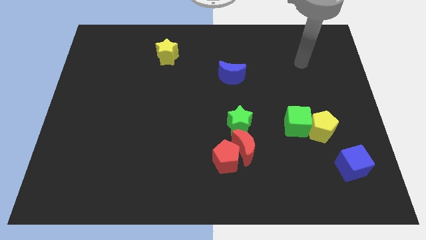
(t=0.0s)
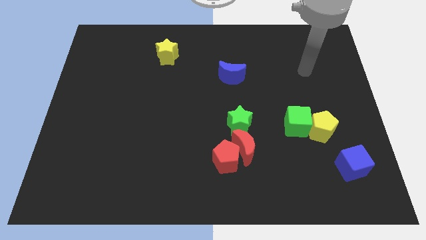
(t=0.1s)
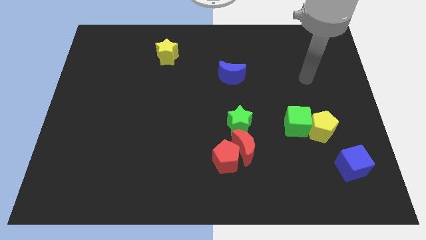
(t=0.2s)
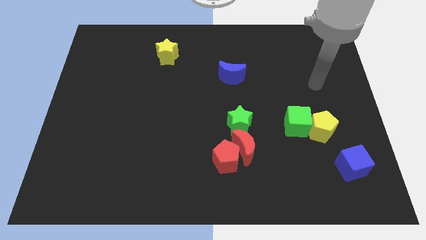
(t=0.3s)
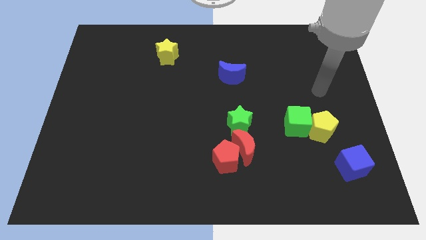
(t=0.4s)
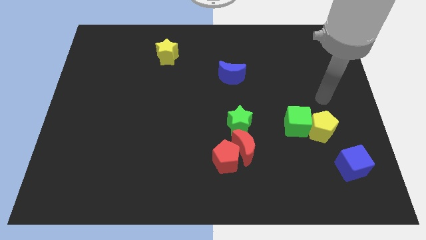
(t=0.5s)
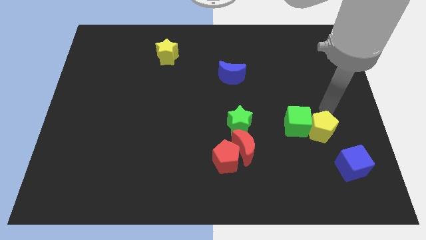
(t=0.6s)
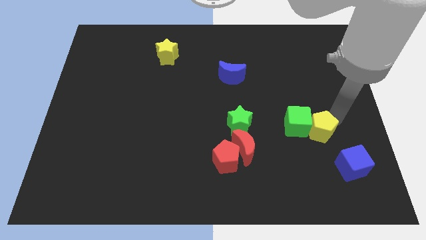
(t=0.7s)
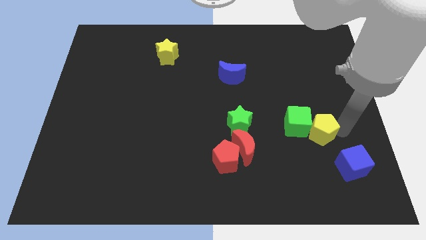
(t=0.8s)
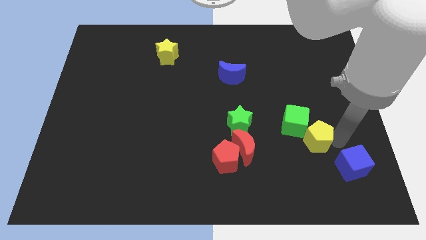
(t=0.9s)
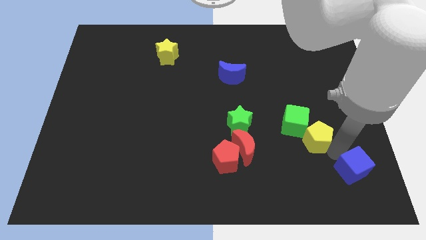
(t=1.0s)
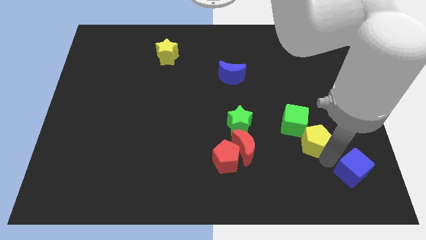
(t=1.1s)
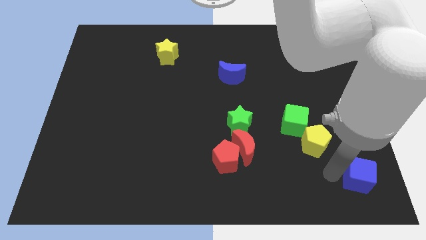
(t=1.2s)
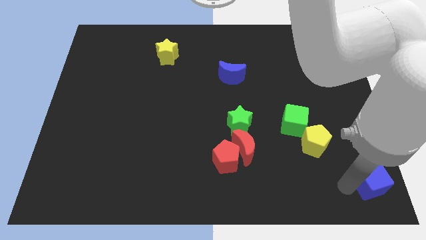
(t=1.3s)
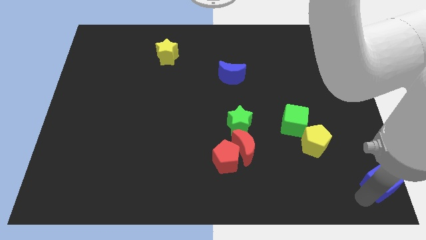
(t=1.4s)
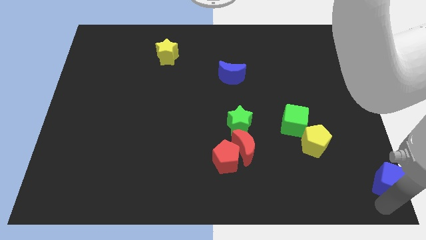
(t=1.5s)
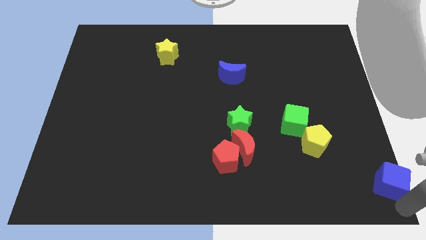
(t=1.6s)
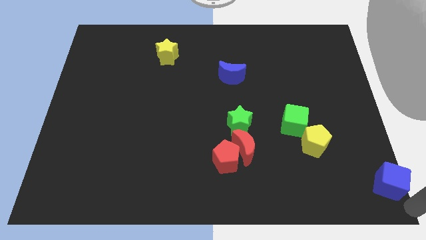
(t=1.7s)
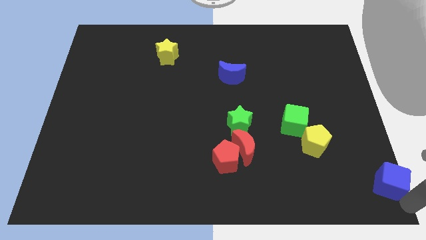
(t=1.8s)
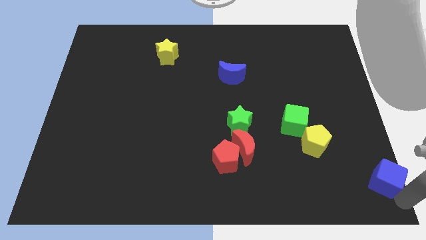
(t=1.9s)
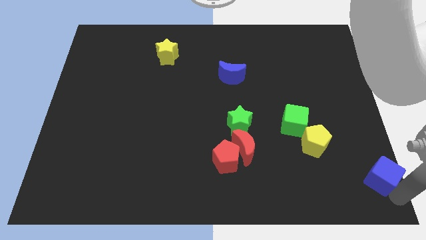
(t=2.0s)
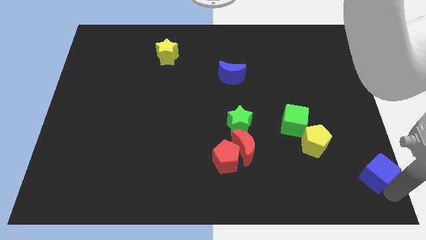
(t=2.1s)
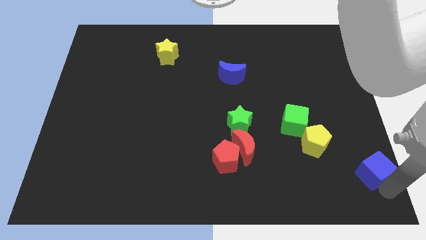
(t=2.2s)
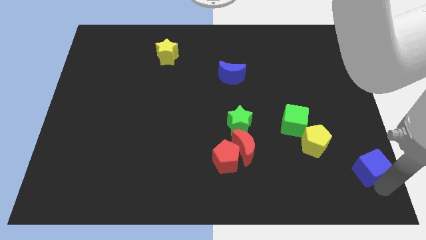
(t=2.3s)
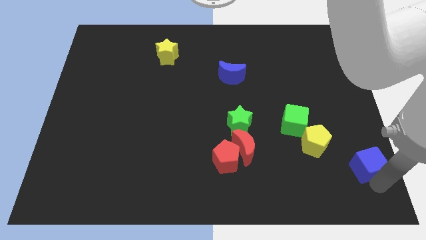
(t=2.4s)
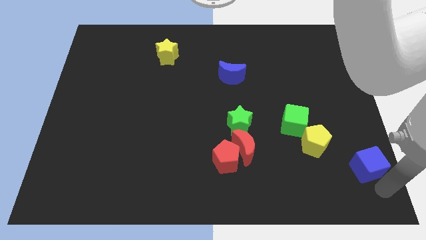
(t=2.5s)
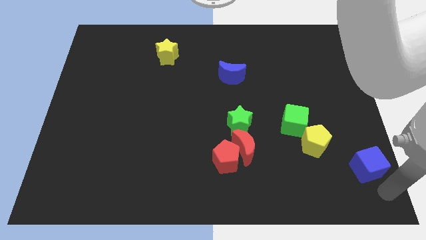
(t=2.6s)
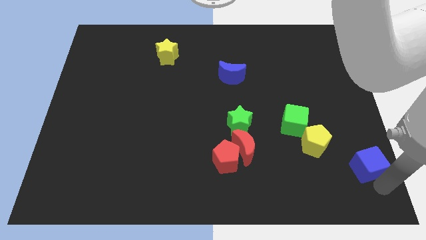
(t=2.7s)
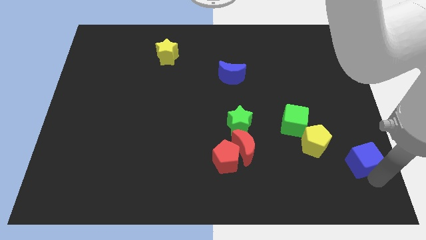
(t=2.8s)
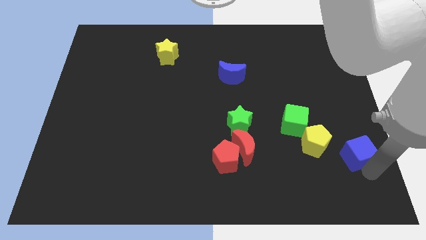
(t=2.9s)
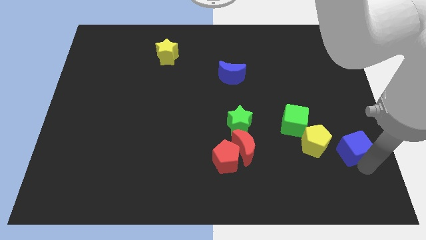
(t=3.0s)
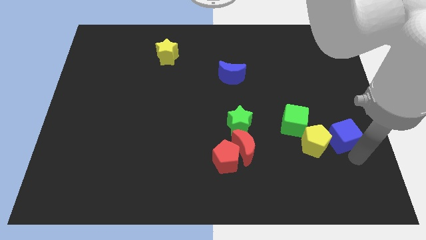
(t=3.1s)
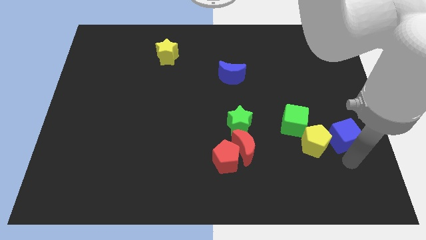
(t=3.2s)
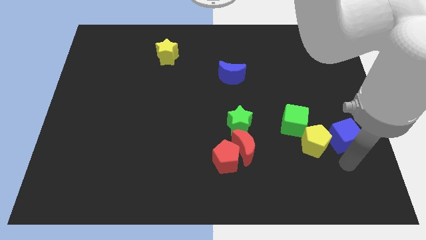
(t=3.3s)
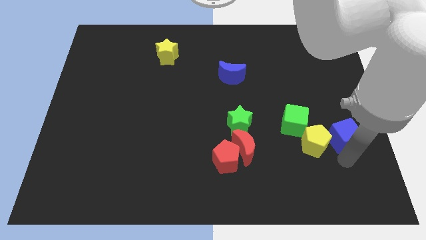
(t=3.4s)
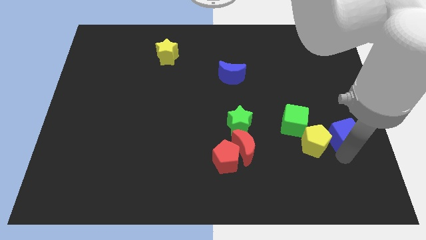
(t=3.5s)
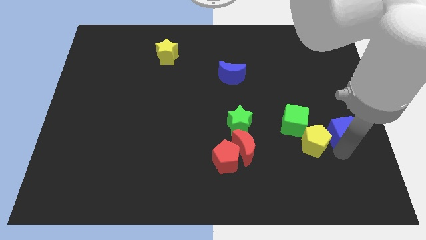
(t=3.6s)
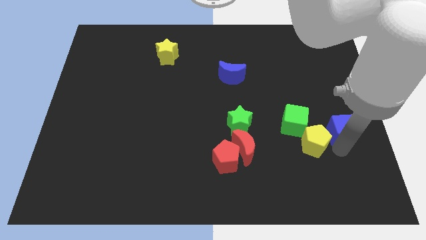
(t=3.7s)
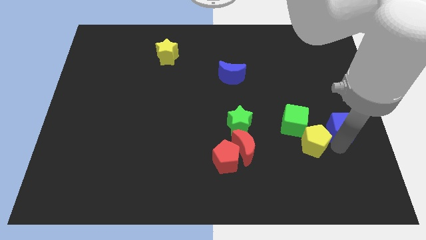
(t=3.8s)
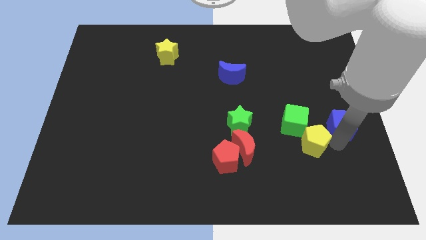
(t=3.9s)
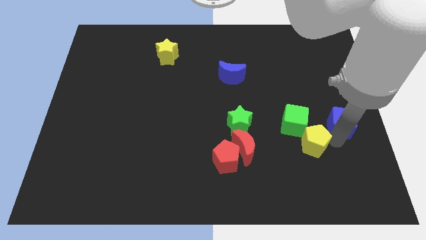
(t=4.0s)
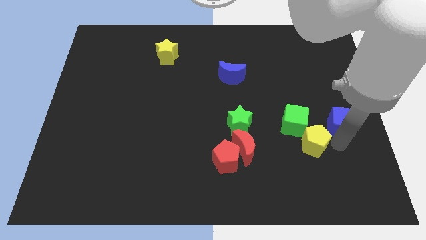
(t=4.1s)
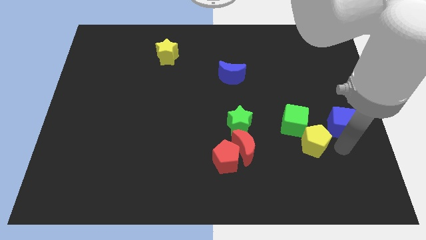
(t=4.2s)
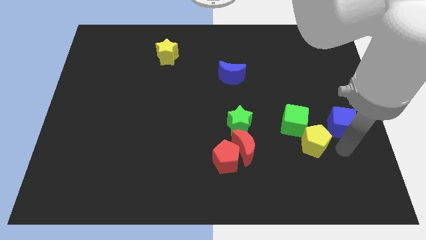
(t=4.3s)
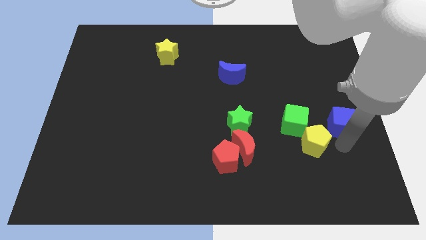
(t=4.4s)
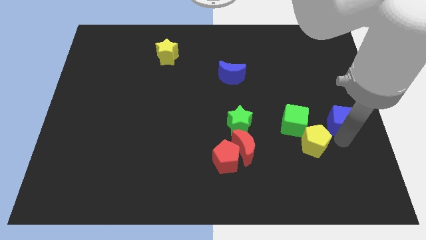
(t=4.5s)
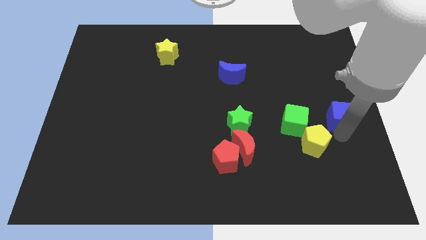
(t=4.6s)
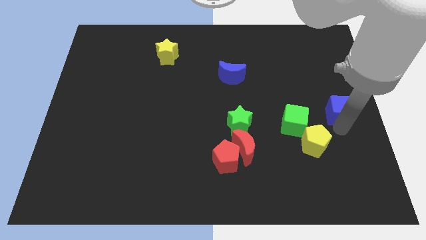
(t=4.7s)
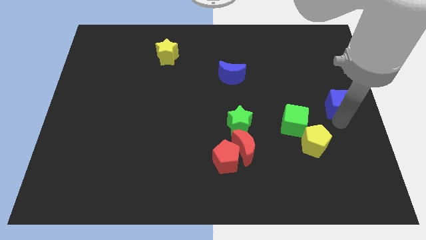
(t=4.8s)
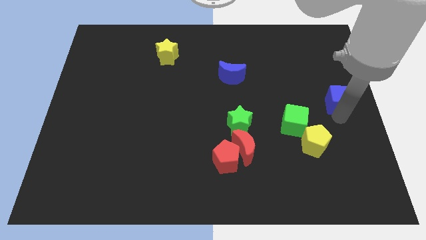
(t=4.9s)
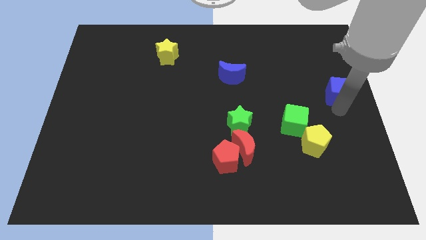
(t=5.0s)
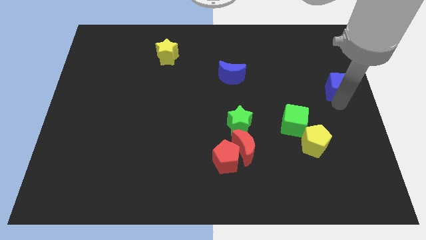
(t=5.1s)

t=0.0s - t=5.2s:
slide the blue cube upwards

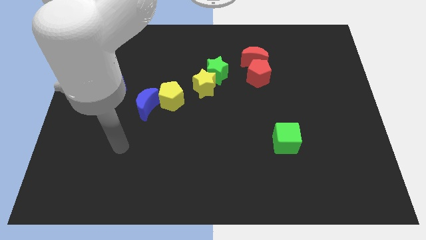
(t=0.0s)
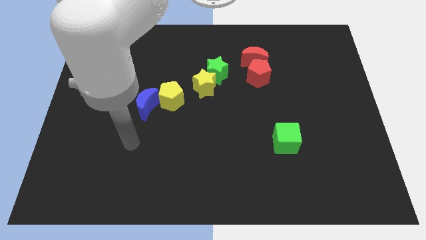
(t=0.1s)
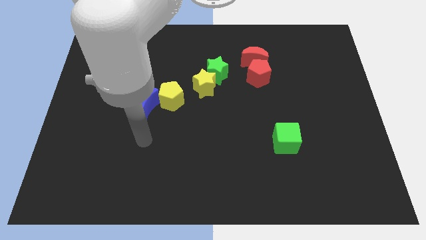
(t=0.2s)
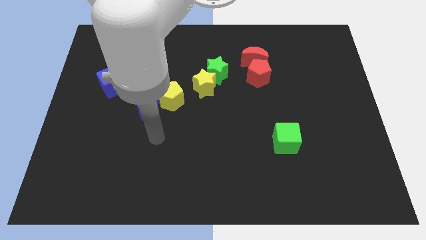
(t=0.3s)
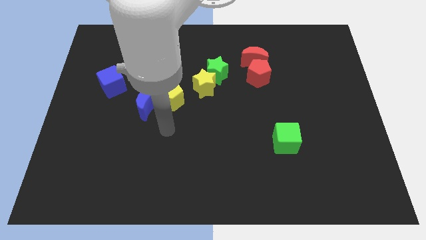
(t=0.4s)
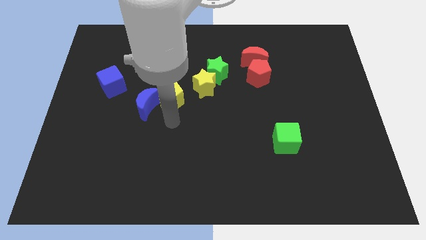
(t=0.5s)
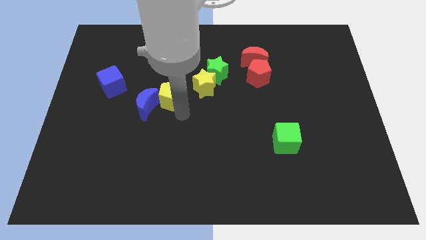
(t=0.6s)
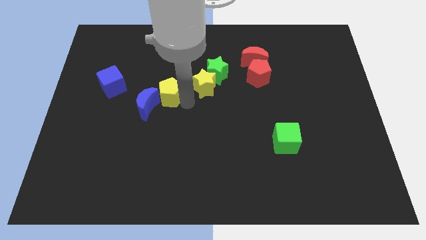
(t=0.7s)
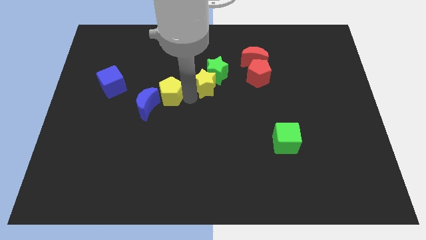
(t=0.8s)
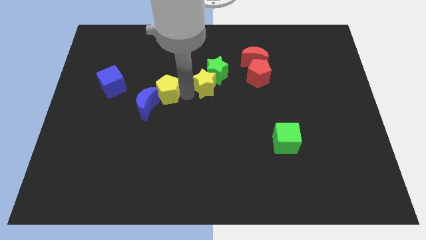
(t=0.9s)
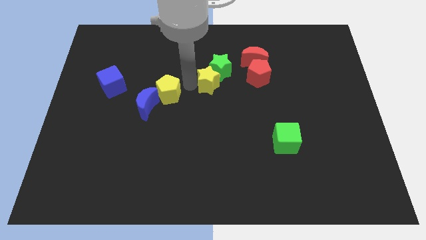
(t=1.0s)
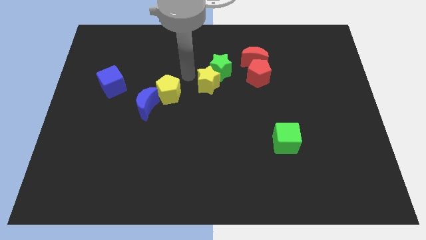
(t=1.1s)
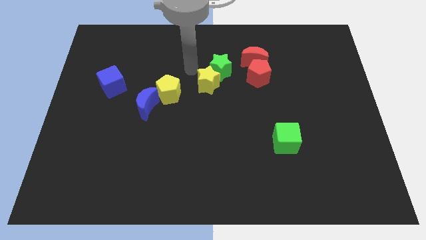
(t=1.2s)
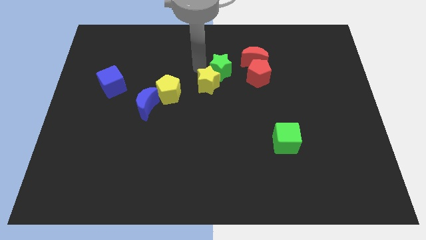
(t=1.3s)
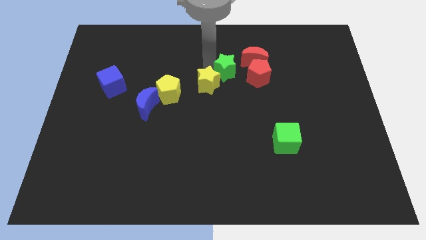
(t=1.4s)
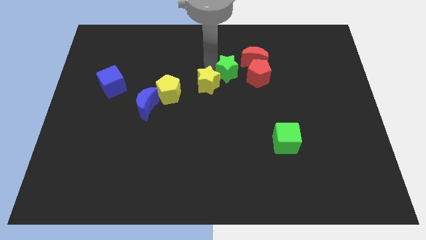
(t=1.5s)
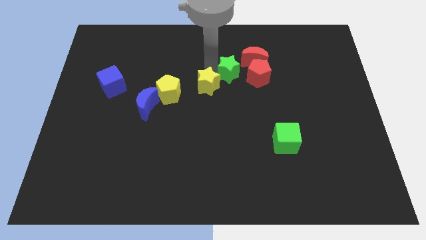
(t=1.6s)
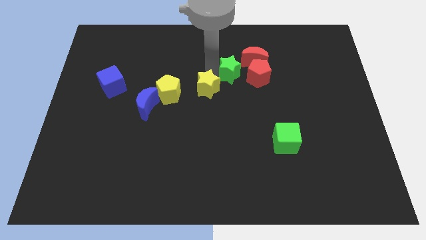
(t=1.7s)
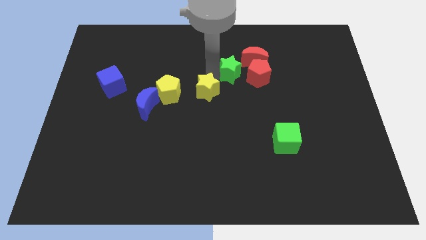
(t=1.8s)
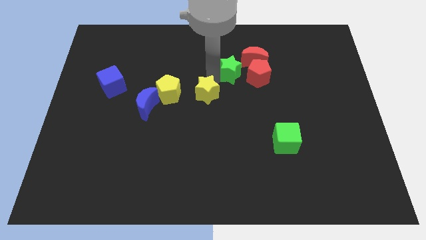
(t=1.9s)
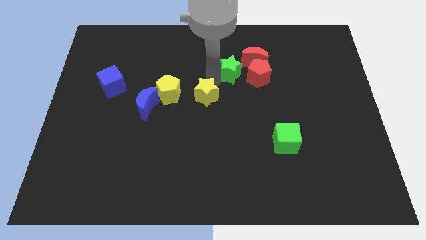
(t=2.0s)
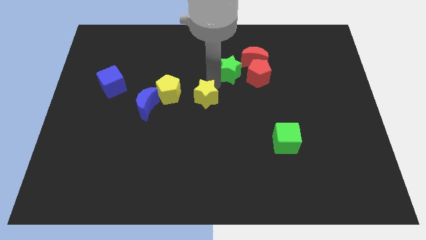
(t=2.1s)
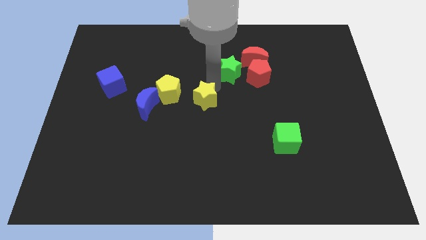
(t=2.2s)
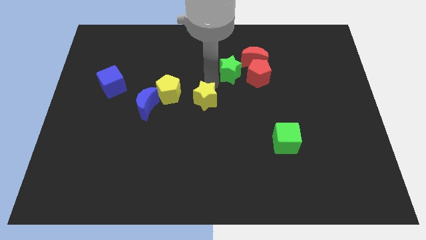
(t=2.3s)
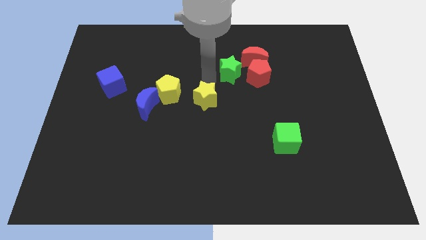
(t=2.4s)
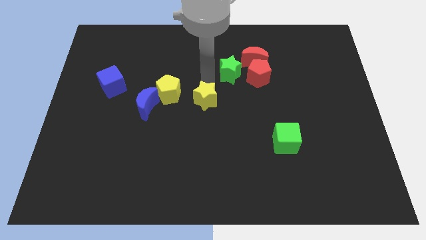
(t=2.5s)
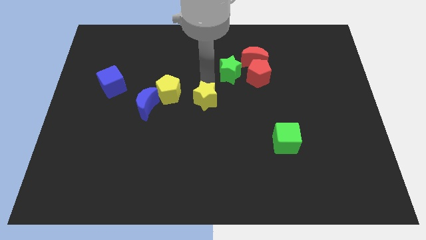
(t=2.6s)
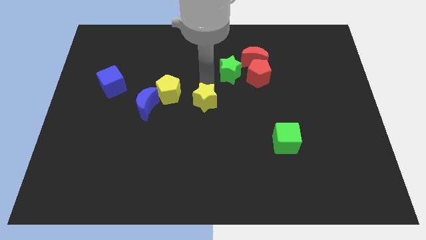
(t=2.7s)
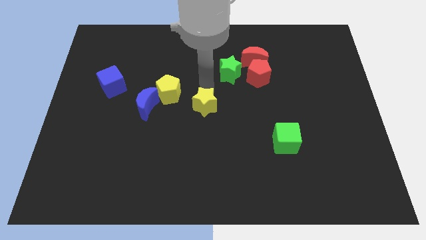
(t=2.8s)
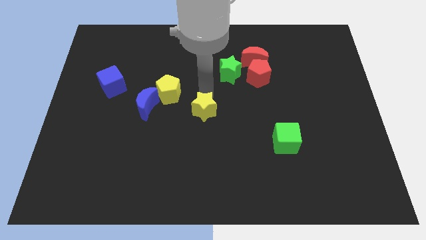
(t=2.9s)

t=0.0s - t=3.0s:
move the yellow star a little down
